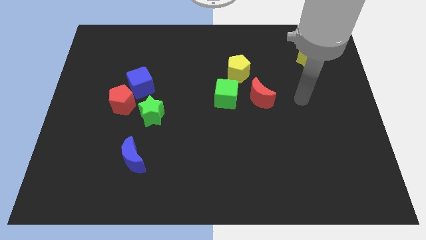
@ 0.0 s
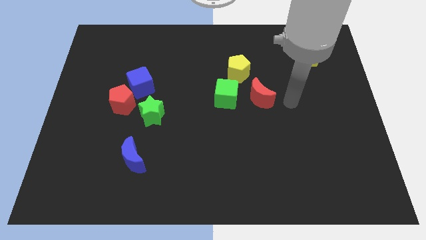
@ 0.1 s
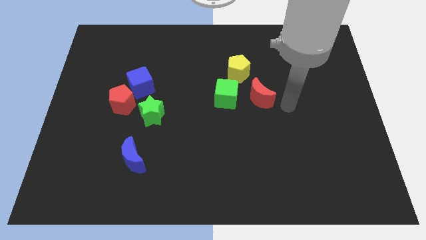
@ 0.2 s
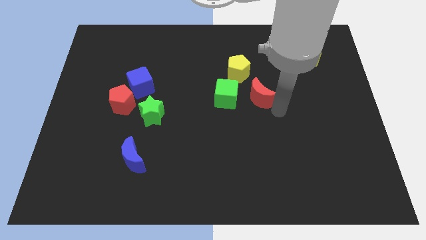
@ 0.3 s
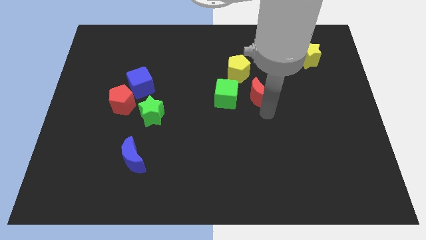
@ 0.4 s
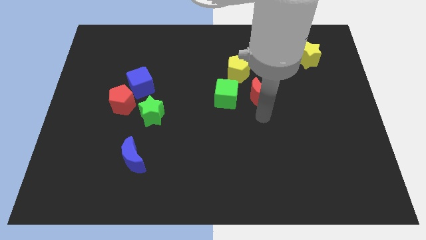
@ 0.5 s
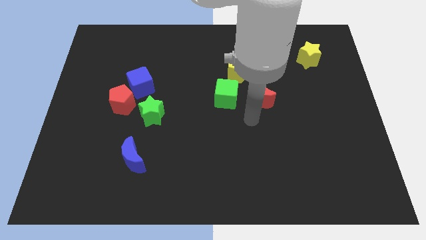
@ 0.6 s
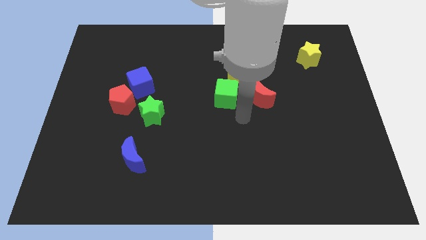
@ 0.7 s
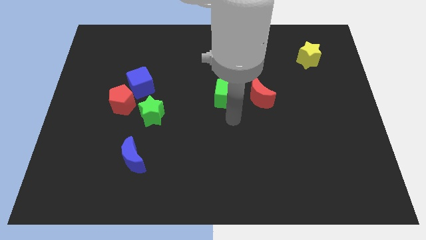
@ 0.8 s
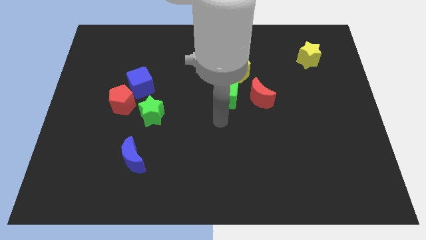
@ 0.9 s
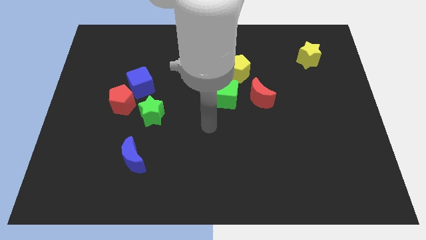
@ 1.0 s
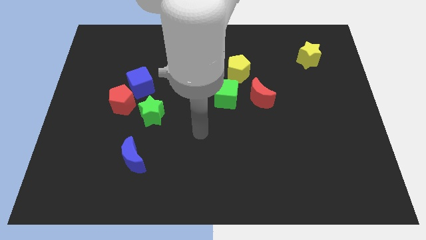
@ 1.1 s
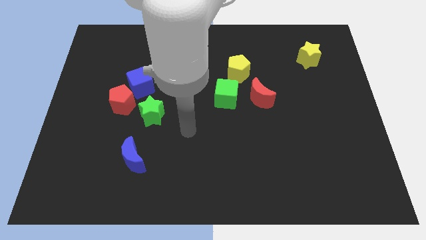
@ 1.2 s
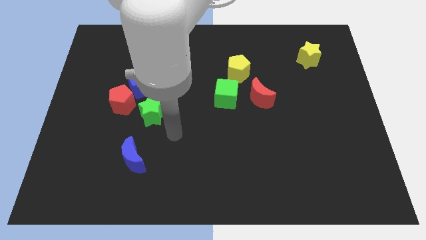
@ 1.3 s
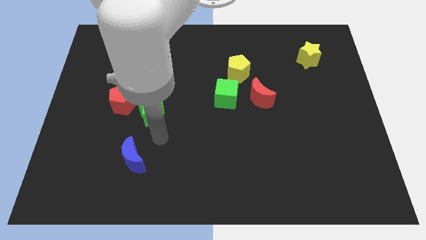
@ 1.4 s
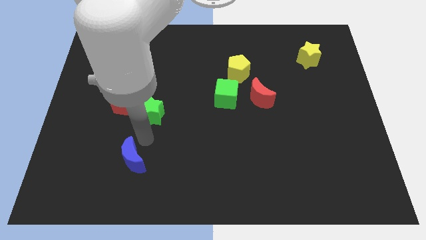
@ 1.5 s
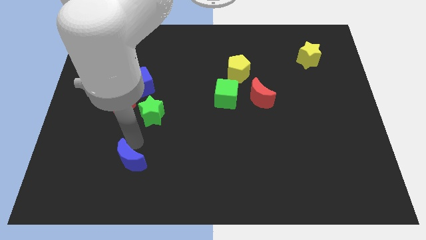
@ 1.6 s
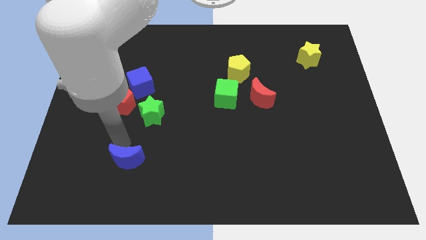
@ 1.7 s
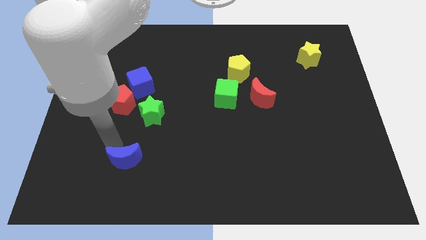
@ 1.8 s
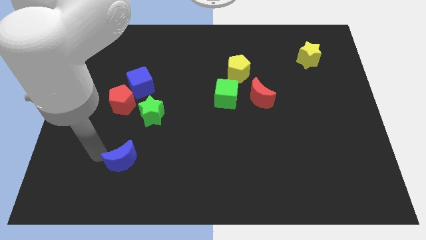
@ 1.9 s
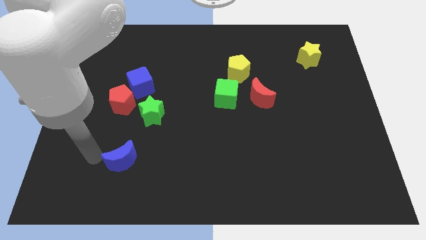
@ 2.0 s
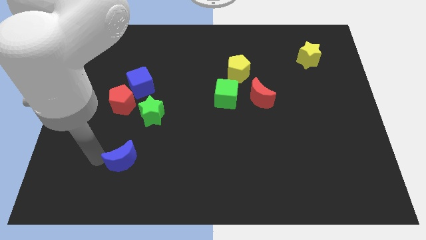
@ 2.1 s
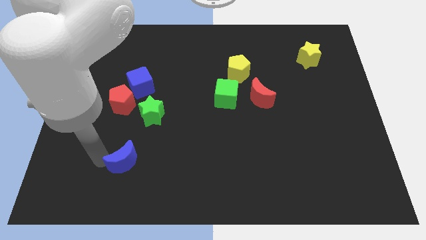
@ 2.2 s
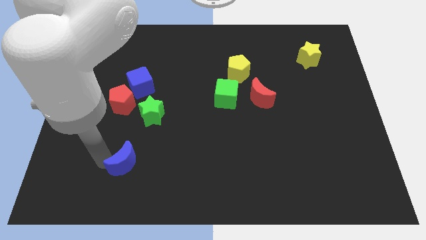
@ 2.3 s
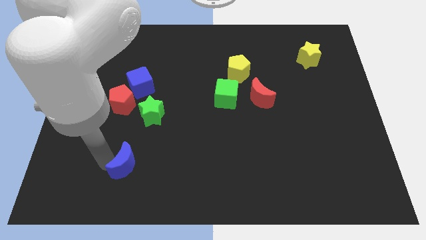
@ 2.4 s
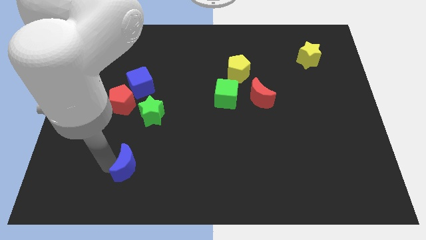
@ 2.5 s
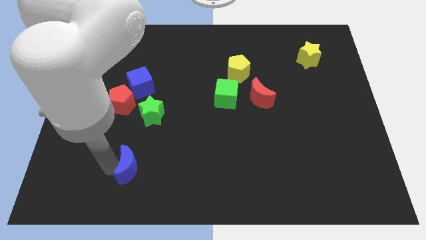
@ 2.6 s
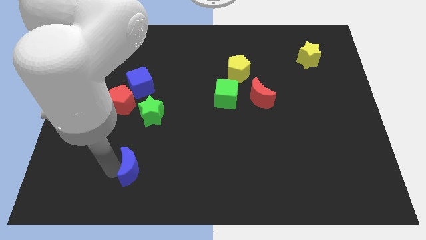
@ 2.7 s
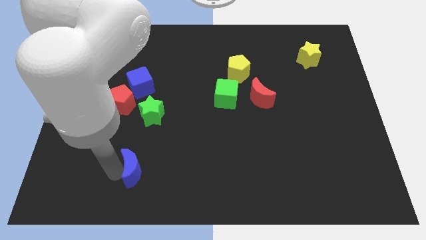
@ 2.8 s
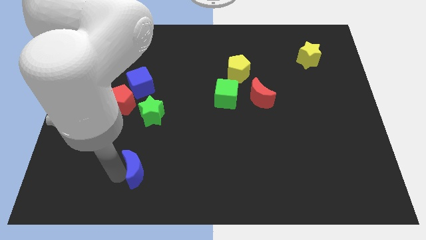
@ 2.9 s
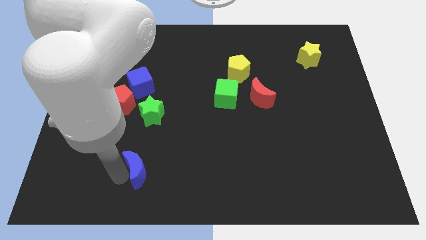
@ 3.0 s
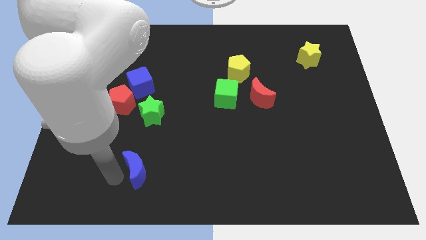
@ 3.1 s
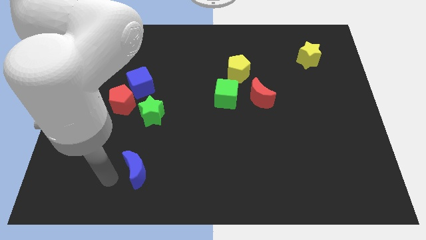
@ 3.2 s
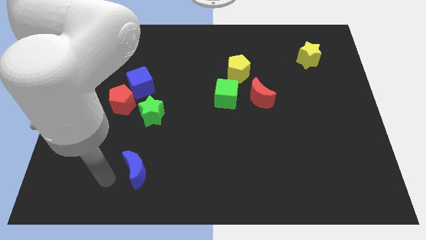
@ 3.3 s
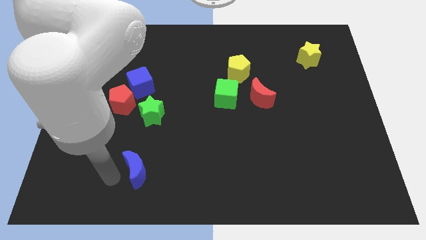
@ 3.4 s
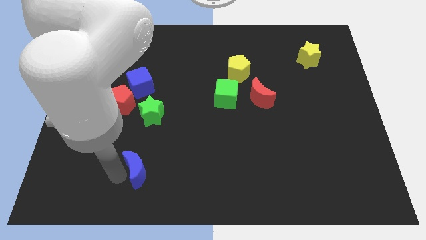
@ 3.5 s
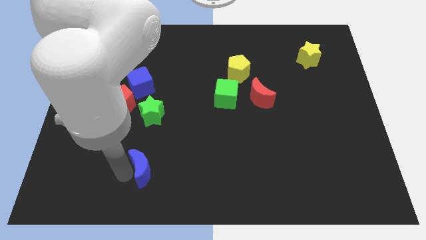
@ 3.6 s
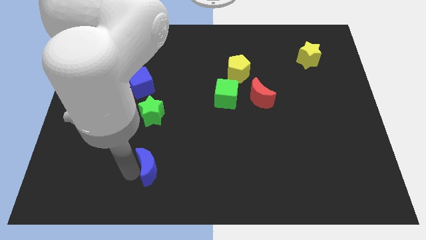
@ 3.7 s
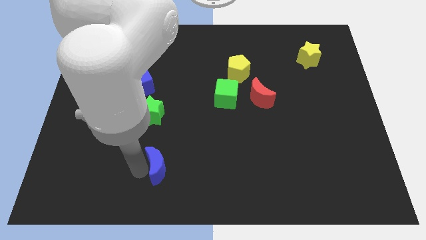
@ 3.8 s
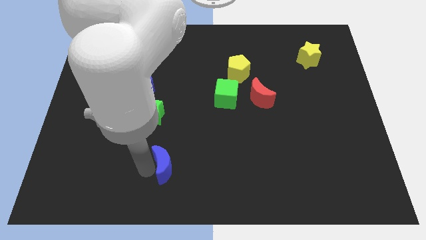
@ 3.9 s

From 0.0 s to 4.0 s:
slide the blue moon to the right somewhat

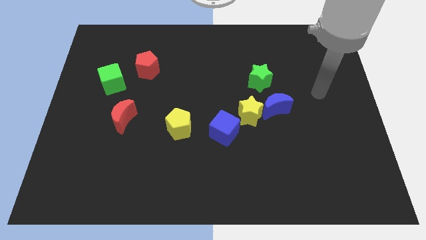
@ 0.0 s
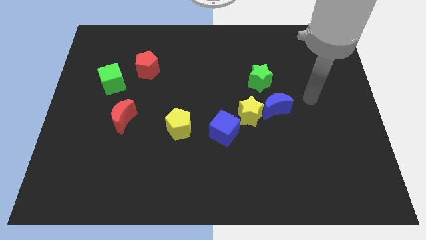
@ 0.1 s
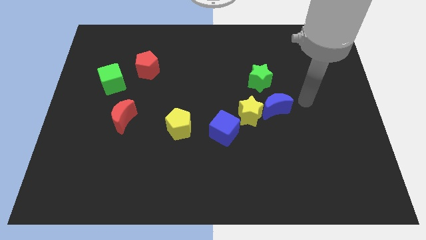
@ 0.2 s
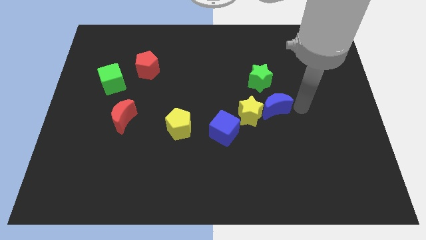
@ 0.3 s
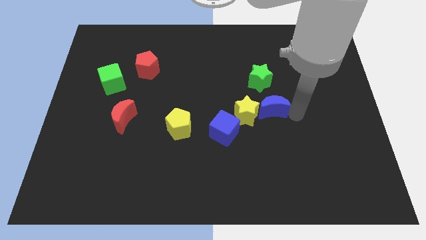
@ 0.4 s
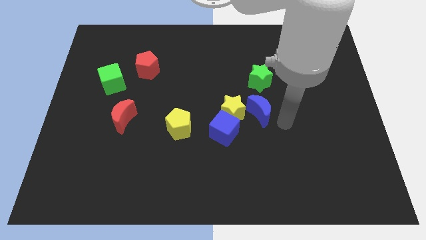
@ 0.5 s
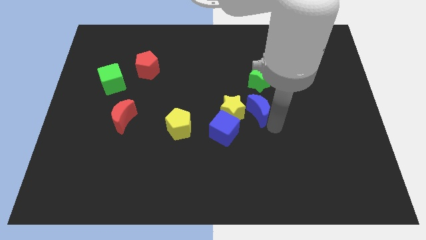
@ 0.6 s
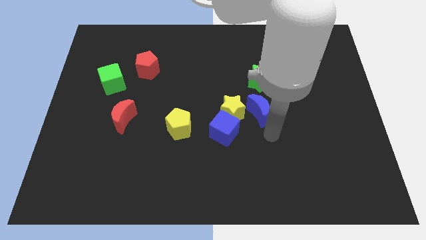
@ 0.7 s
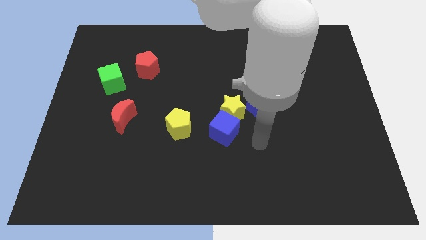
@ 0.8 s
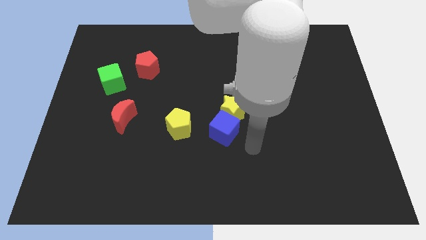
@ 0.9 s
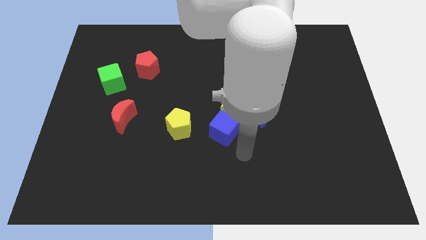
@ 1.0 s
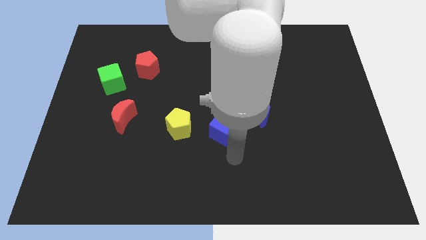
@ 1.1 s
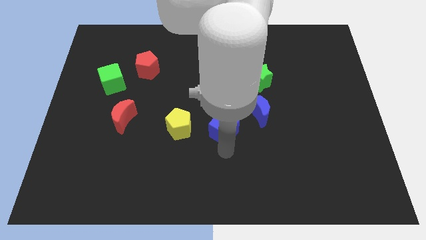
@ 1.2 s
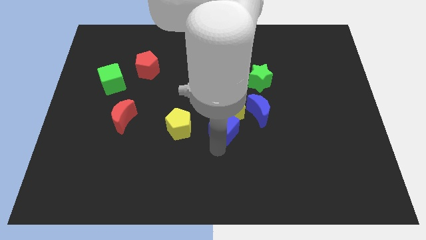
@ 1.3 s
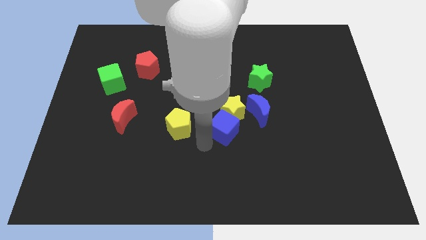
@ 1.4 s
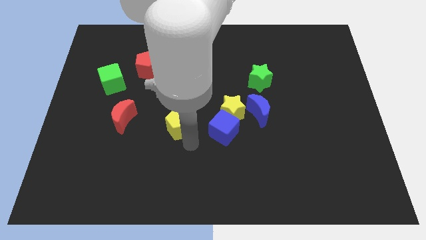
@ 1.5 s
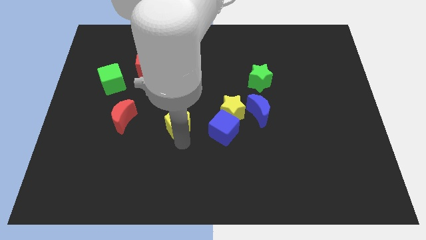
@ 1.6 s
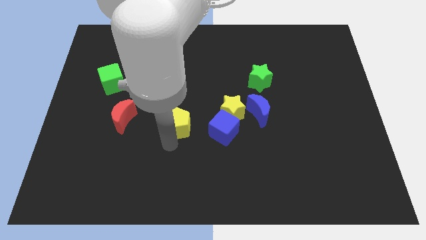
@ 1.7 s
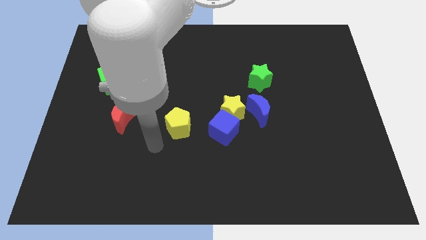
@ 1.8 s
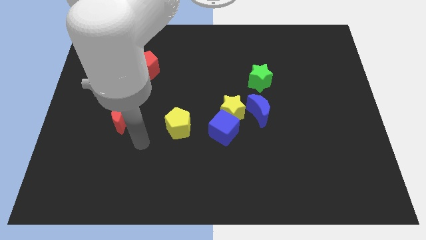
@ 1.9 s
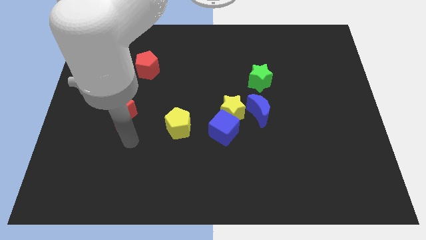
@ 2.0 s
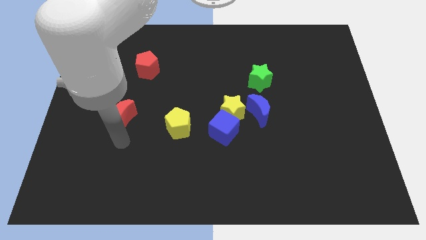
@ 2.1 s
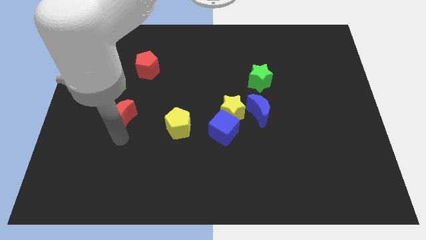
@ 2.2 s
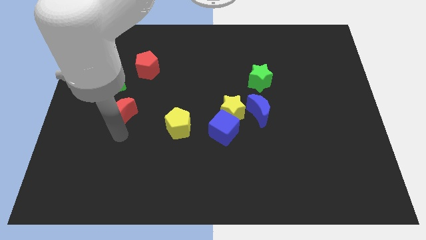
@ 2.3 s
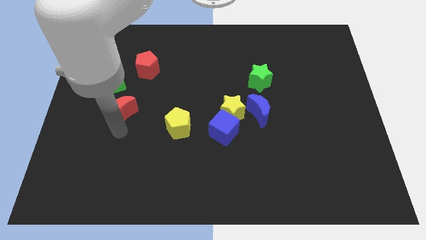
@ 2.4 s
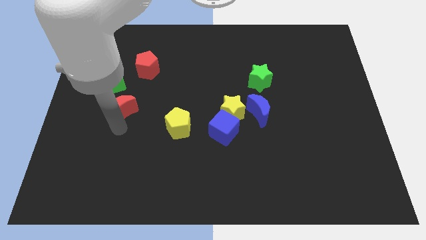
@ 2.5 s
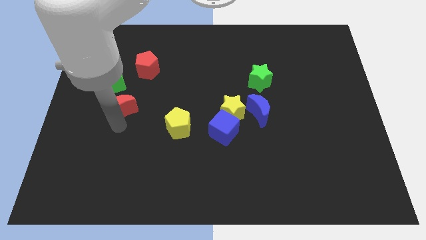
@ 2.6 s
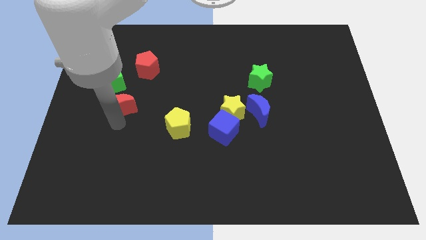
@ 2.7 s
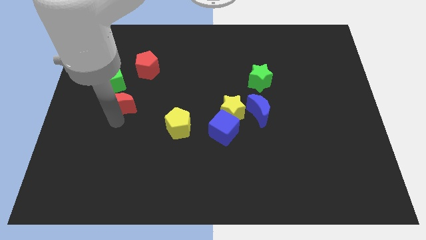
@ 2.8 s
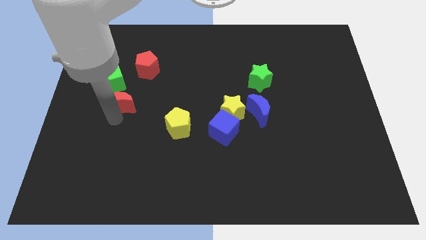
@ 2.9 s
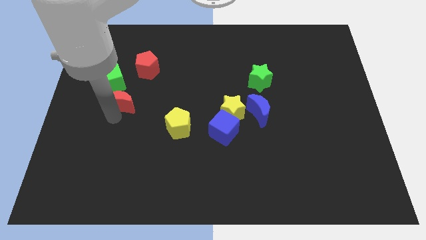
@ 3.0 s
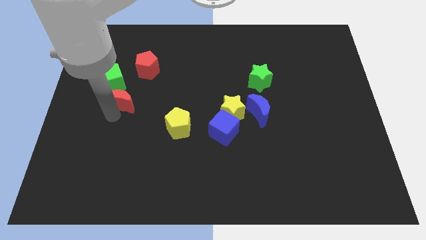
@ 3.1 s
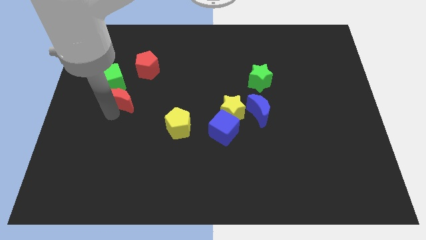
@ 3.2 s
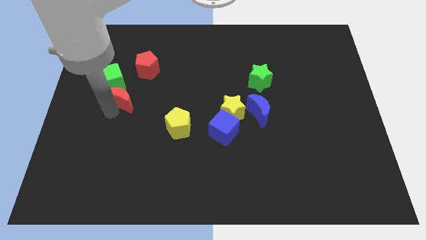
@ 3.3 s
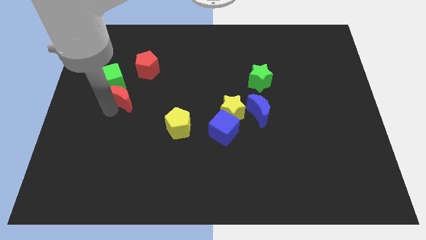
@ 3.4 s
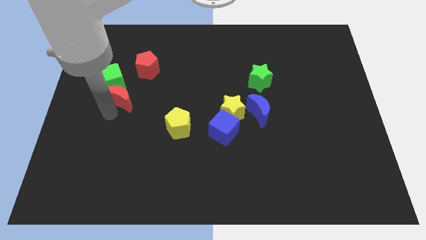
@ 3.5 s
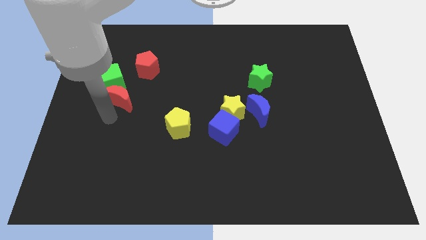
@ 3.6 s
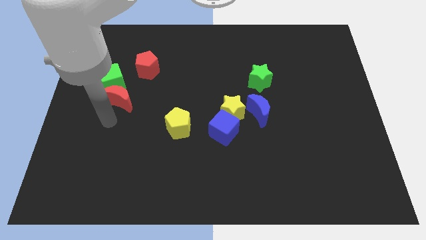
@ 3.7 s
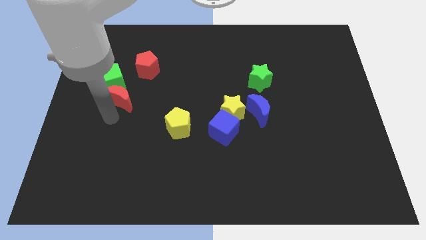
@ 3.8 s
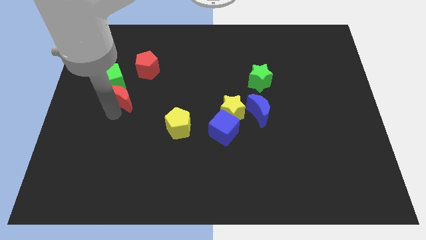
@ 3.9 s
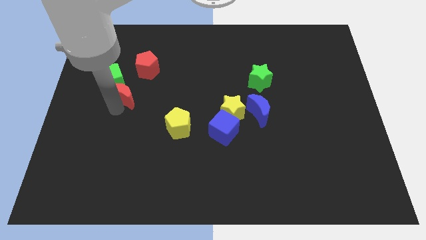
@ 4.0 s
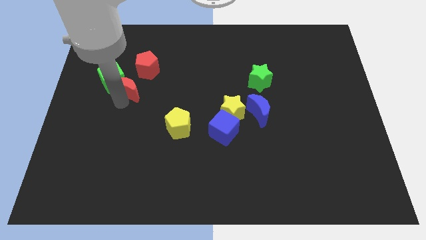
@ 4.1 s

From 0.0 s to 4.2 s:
slightly slide the red moon upwards
